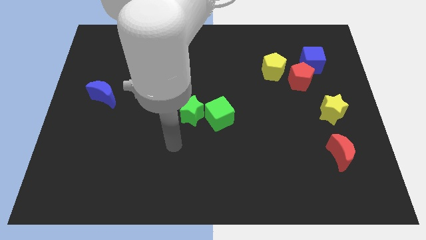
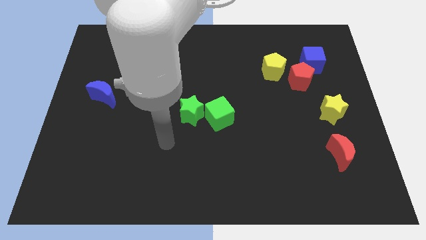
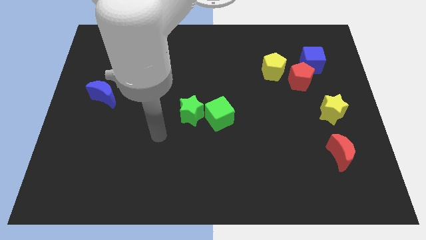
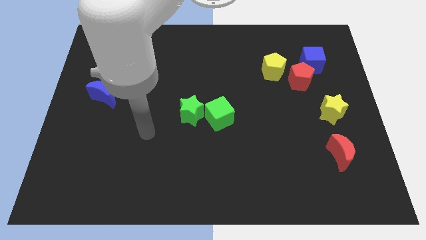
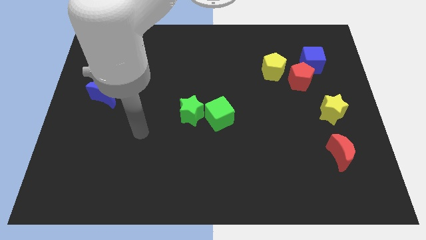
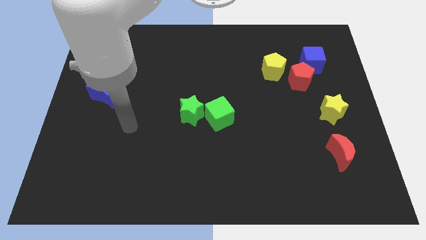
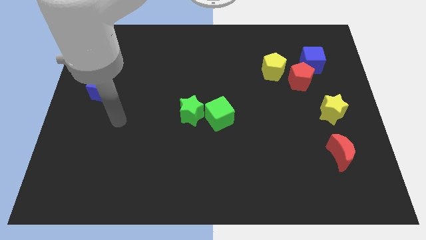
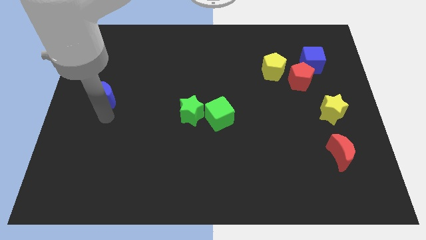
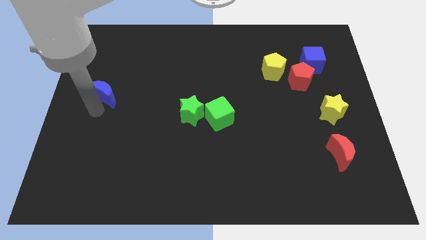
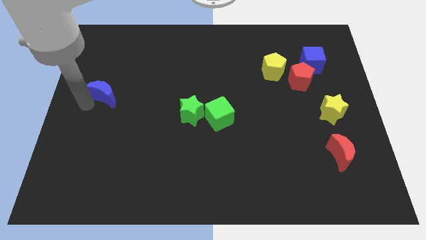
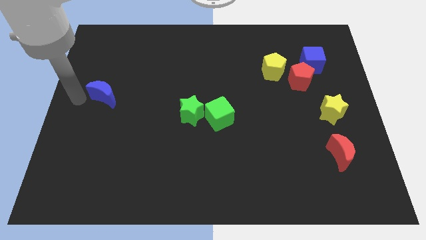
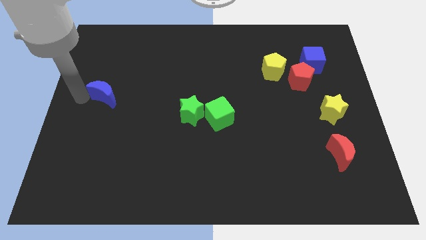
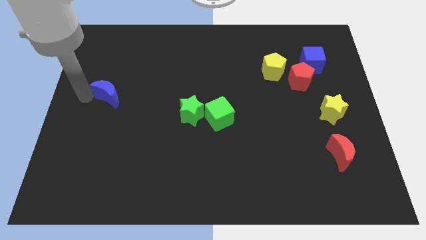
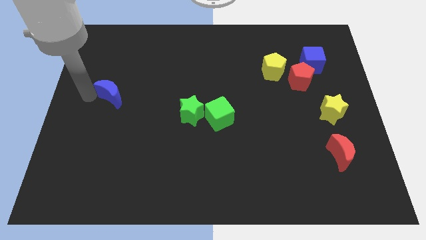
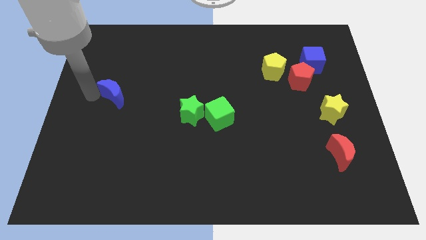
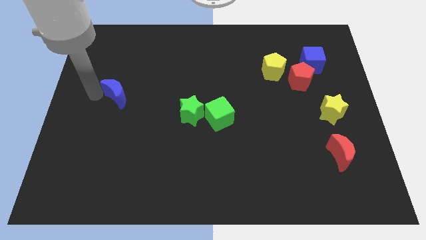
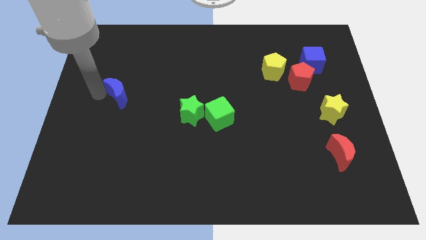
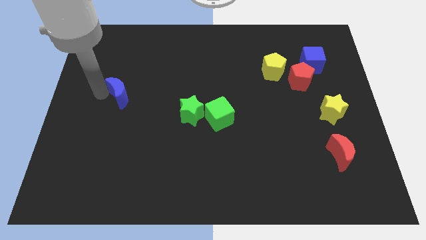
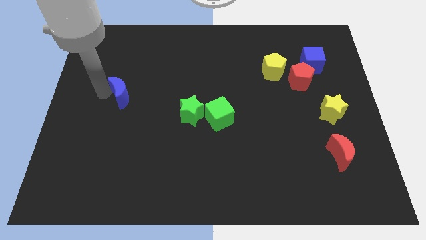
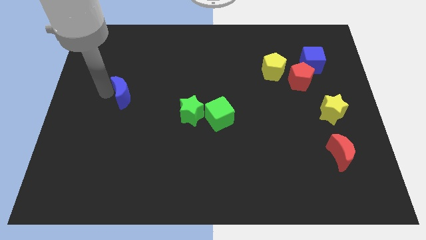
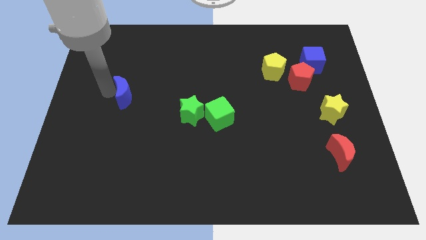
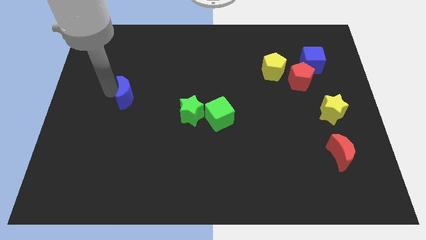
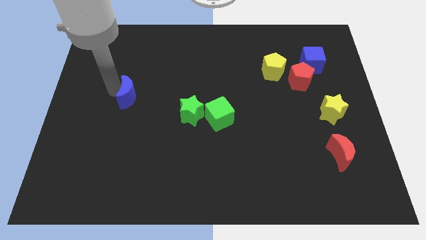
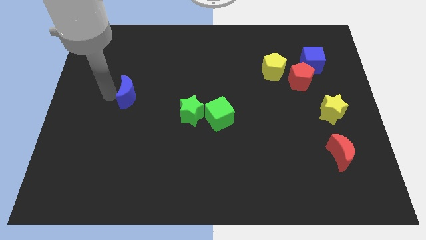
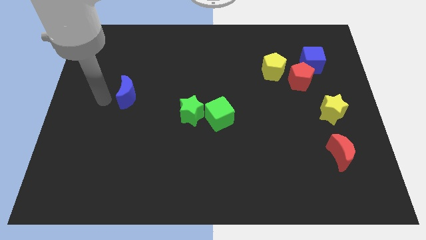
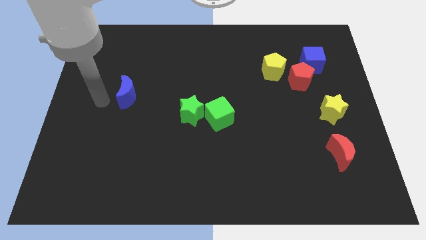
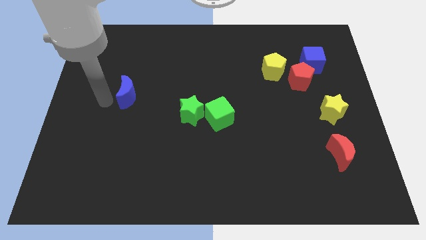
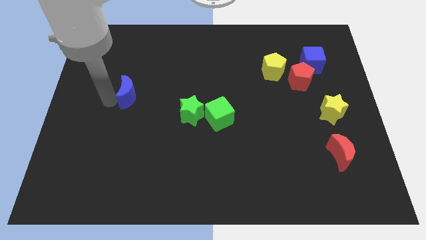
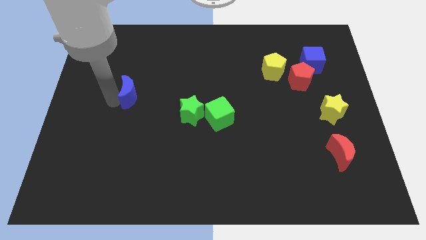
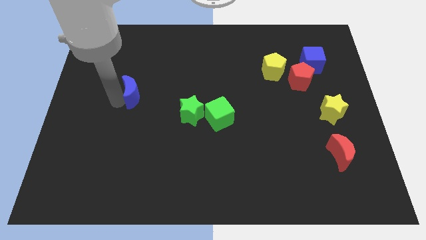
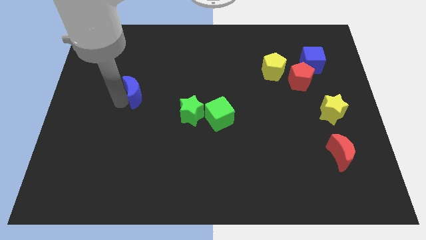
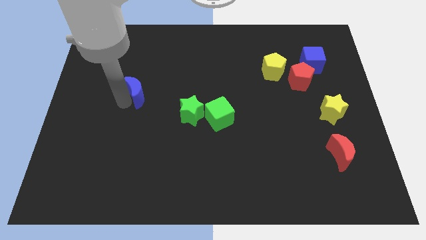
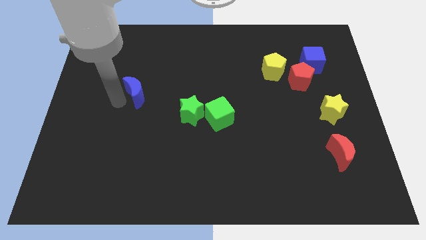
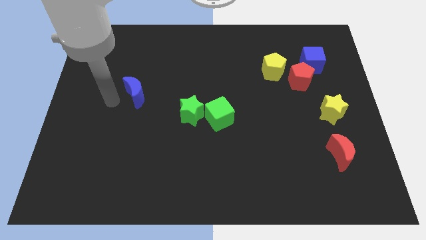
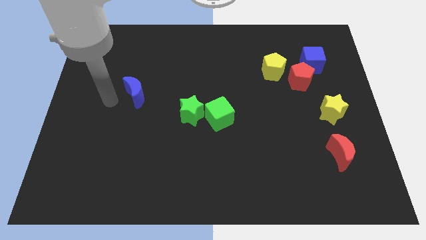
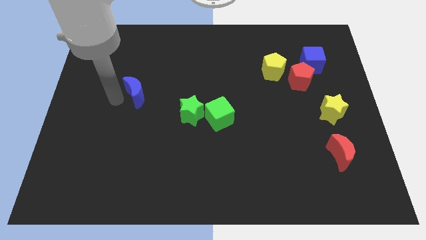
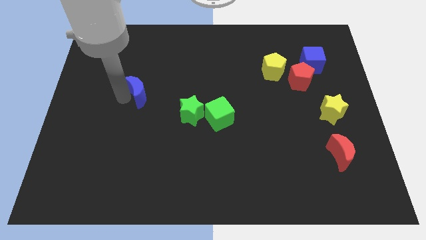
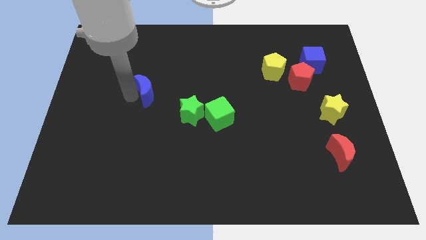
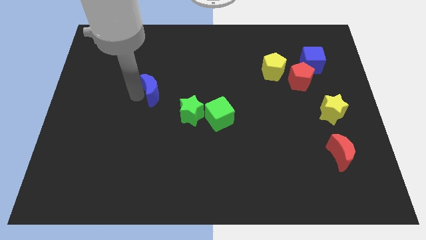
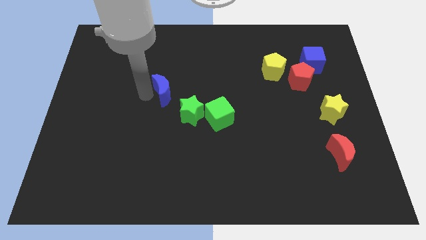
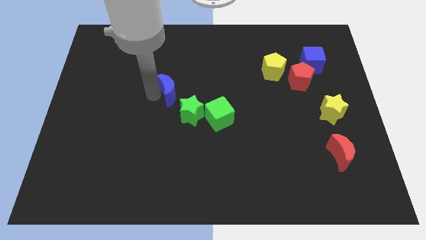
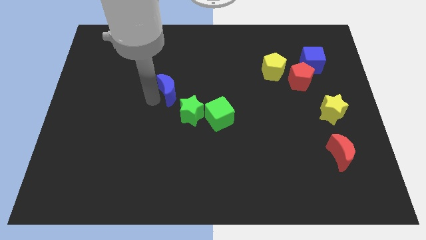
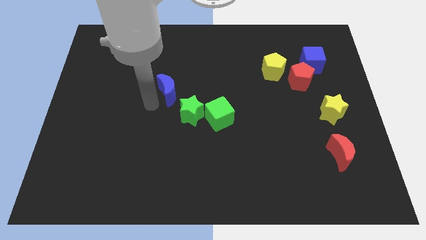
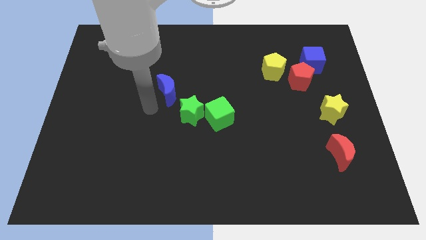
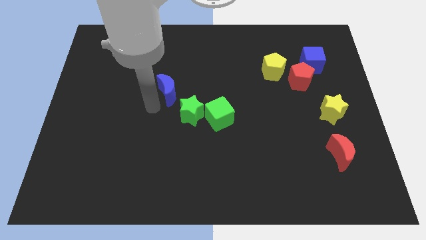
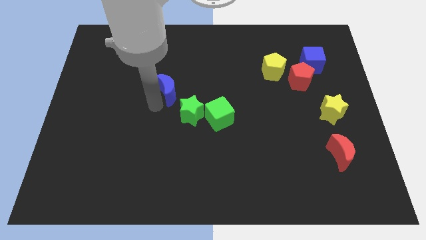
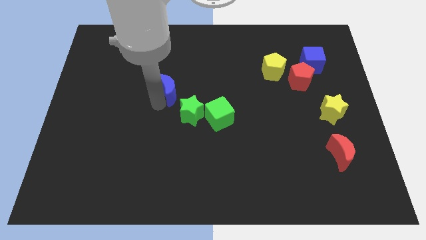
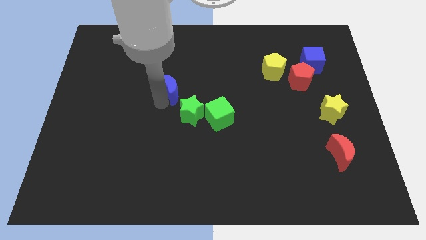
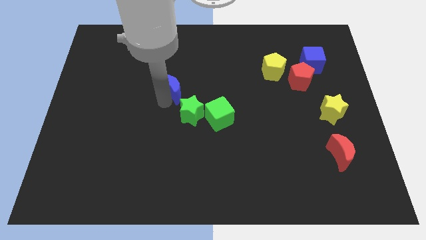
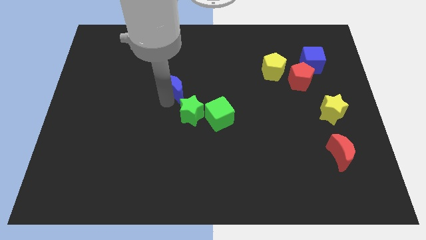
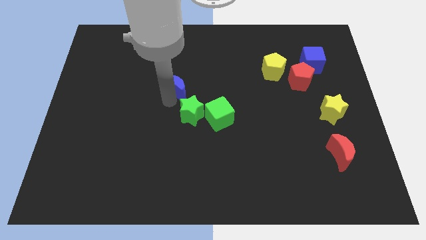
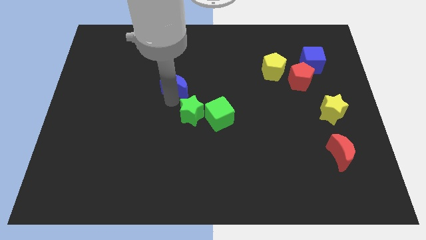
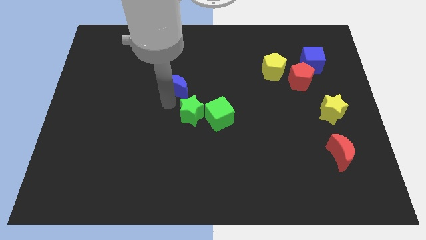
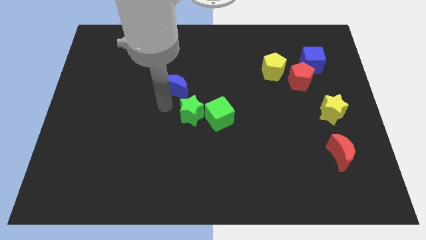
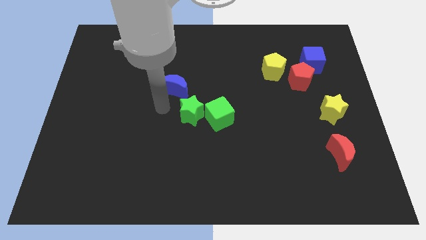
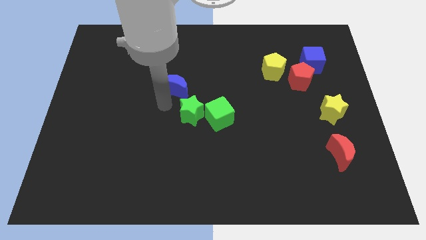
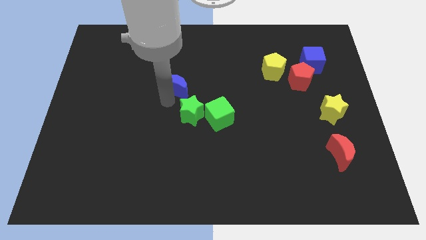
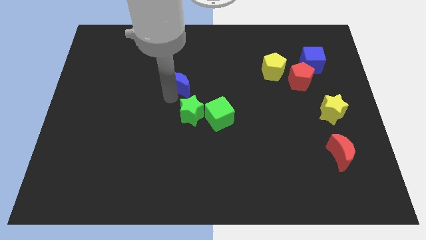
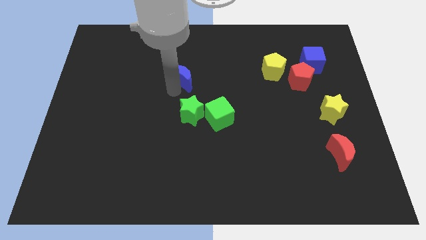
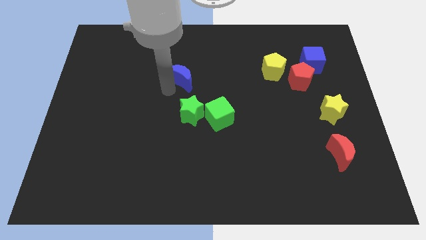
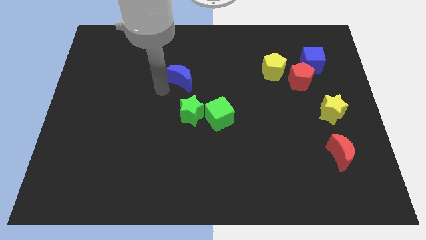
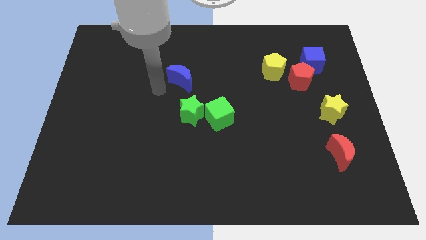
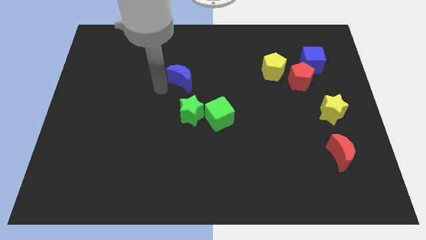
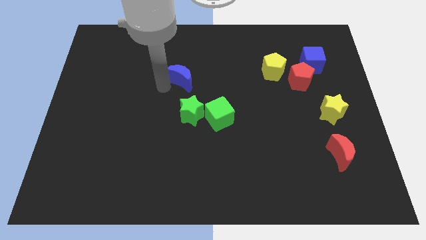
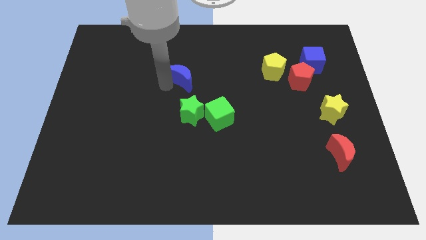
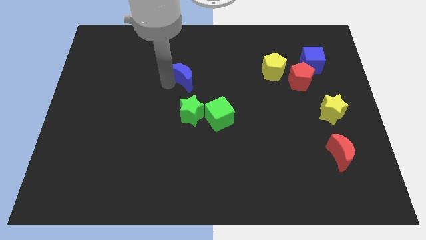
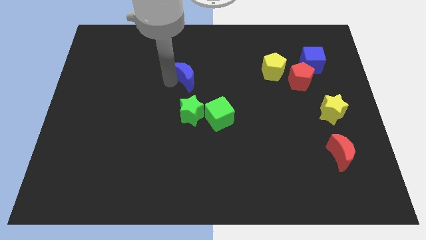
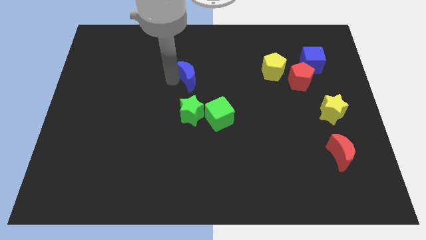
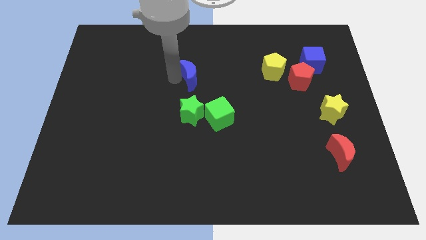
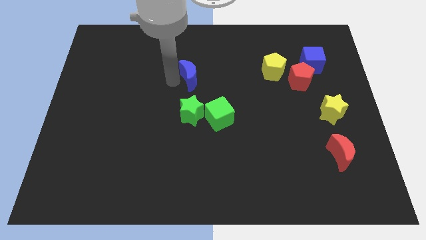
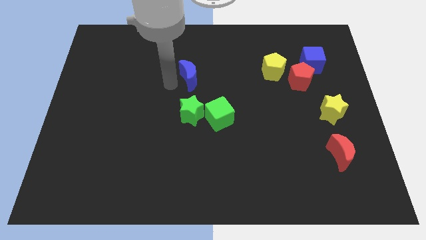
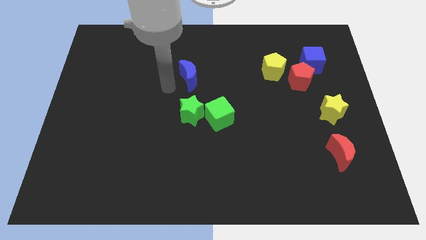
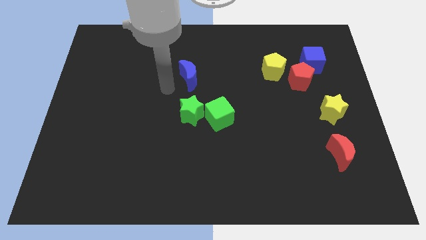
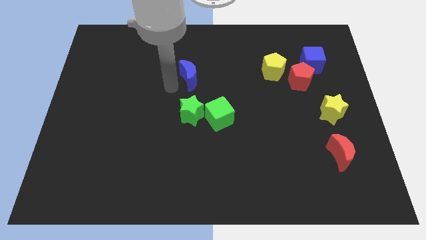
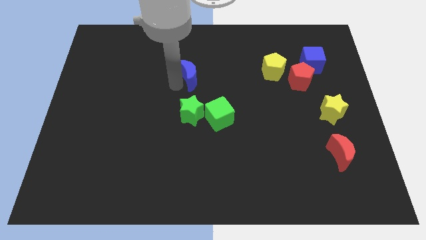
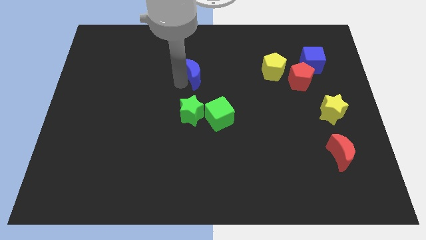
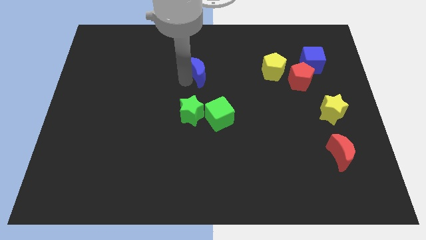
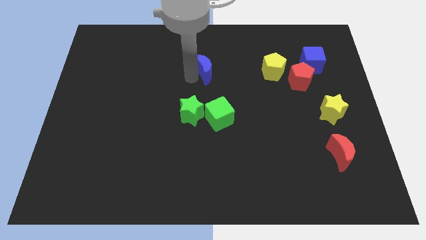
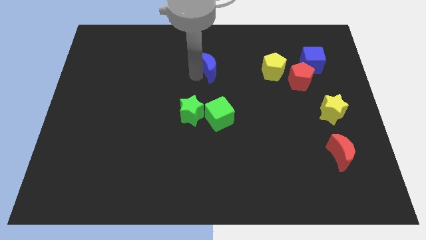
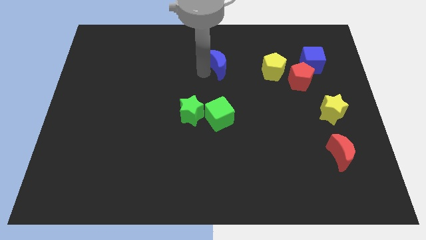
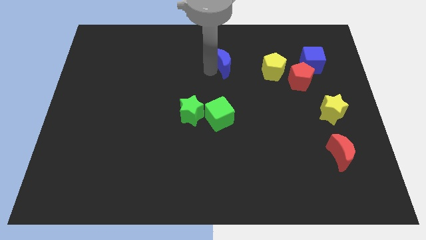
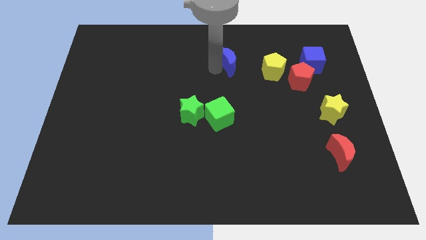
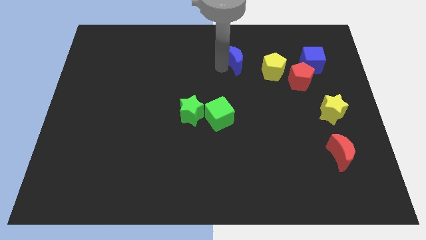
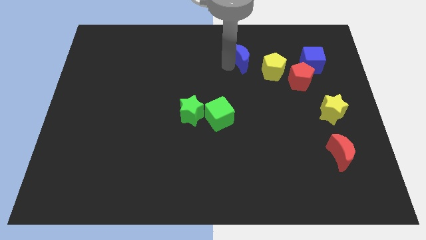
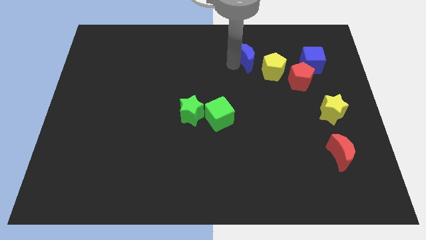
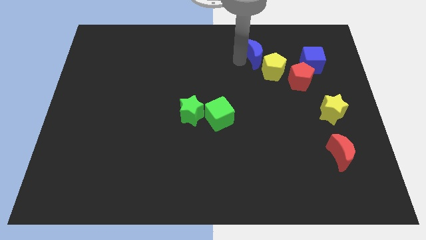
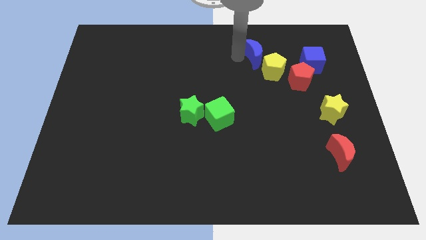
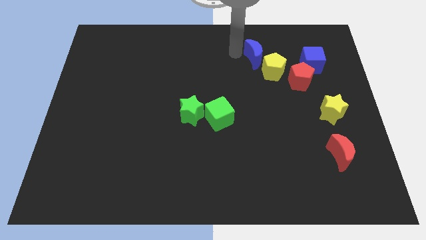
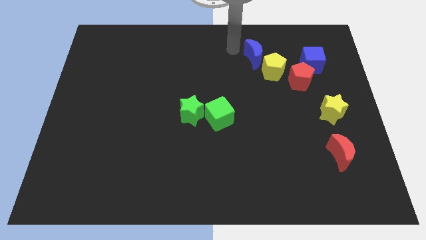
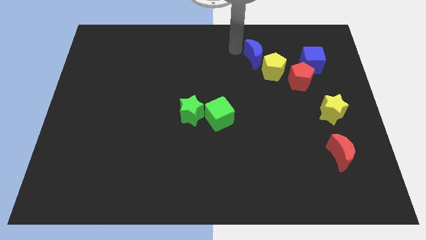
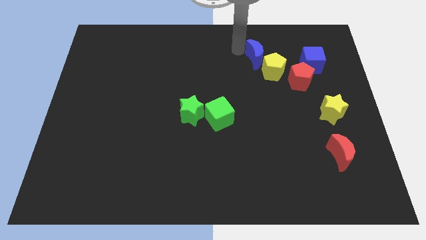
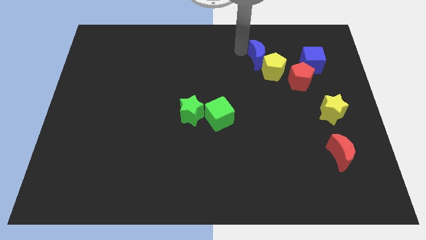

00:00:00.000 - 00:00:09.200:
move the blue moon to the top left side of the red pentagon
